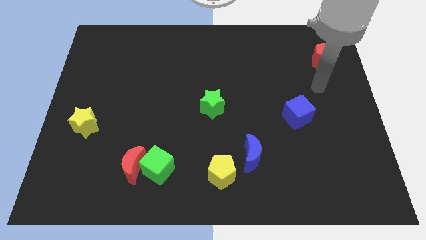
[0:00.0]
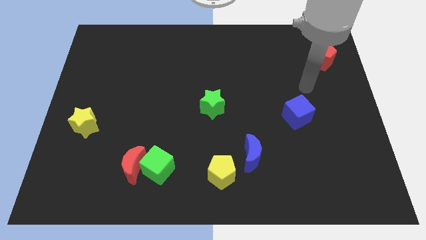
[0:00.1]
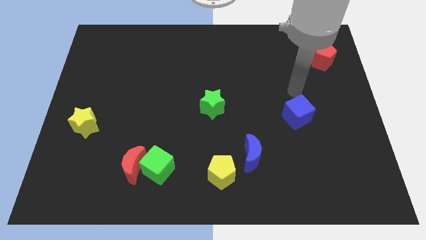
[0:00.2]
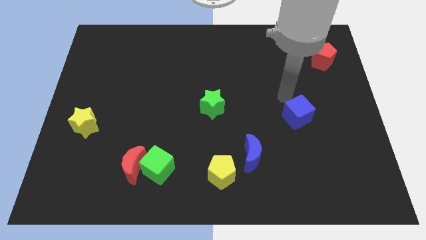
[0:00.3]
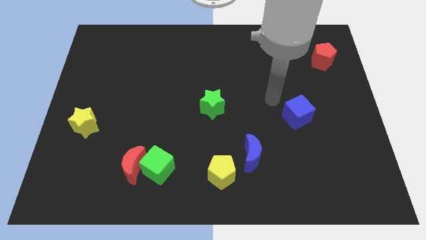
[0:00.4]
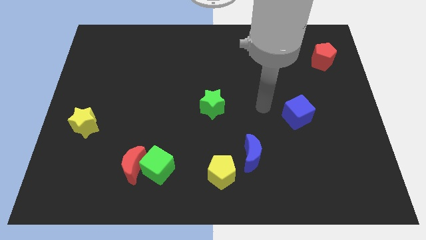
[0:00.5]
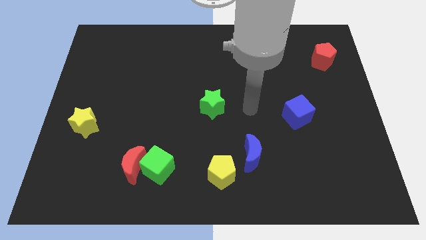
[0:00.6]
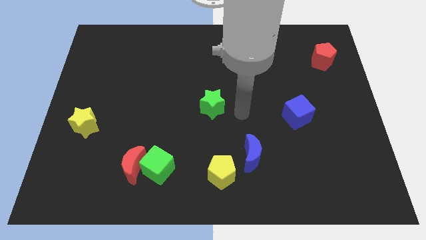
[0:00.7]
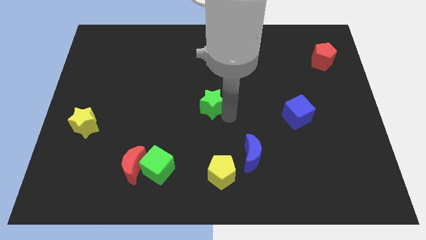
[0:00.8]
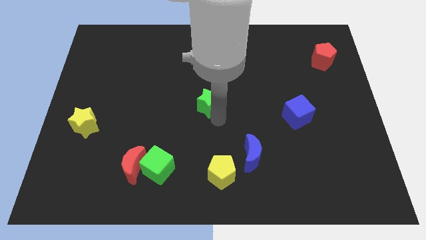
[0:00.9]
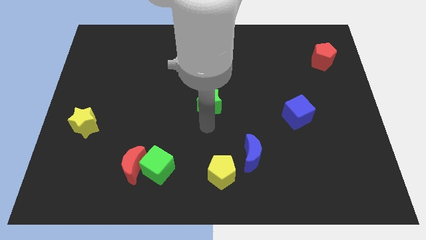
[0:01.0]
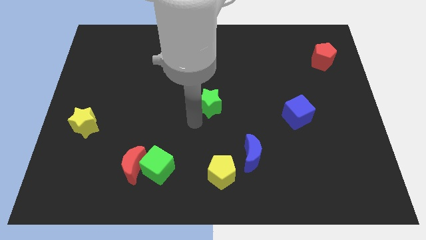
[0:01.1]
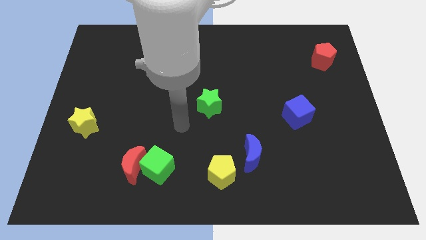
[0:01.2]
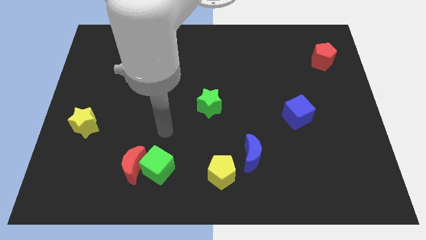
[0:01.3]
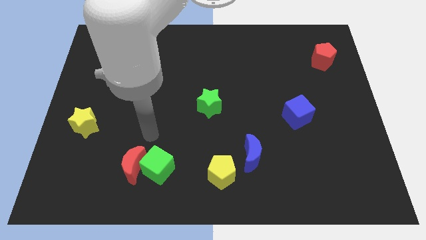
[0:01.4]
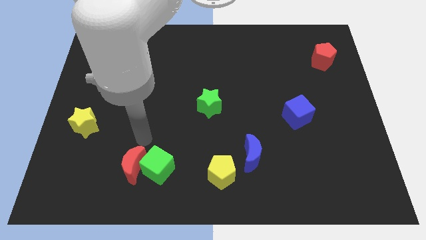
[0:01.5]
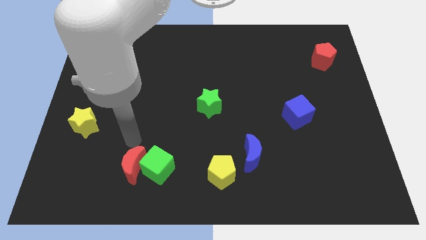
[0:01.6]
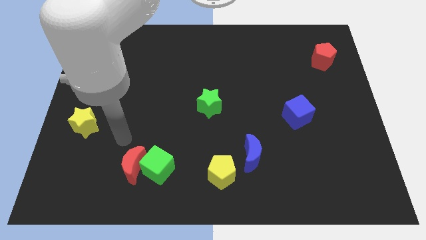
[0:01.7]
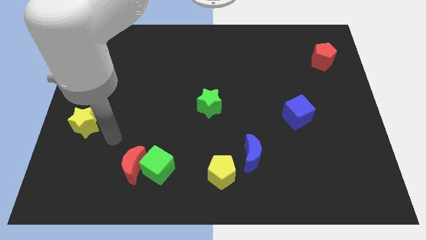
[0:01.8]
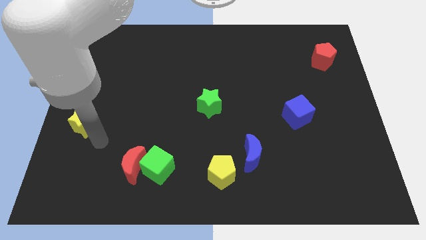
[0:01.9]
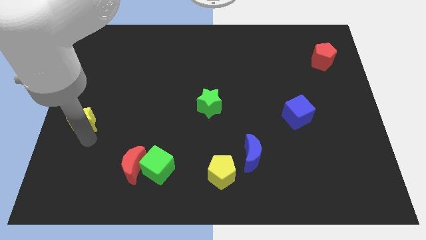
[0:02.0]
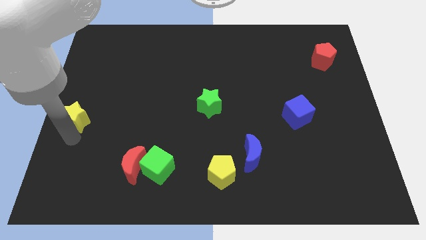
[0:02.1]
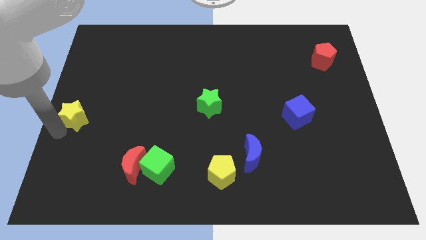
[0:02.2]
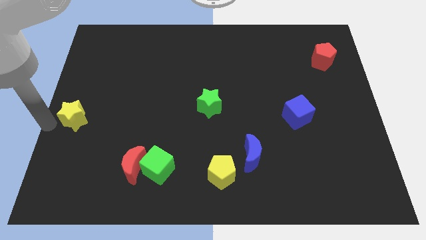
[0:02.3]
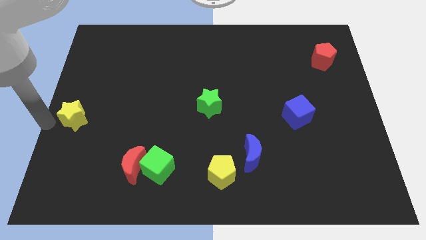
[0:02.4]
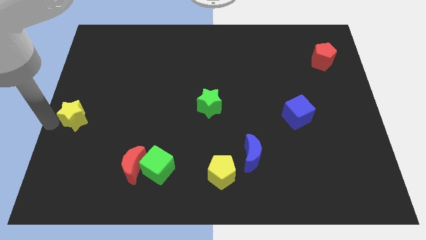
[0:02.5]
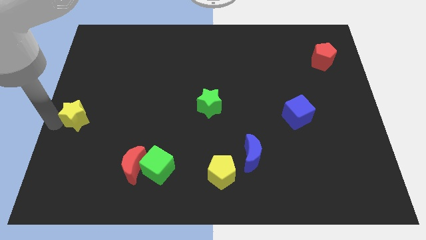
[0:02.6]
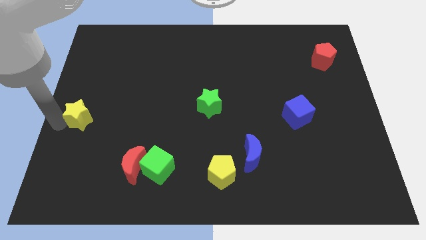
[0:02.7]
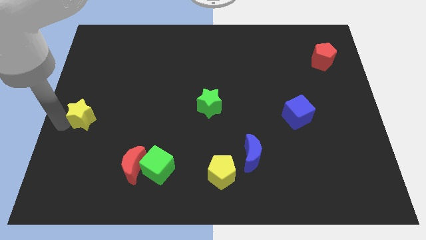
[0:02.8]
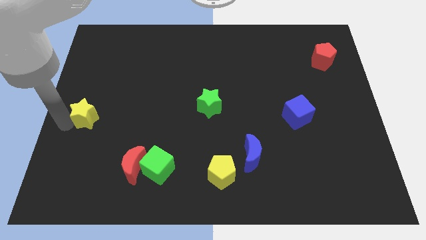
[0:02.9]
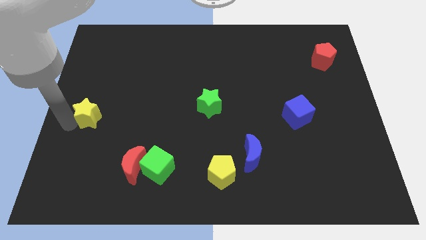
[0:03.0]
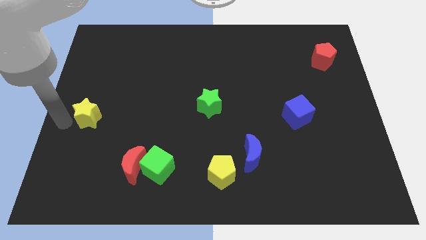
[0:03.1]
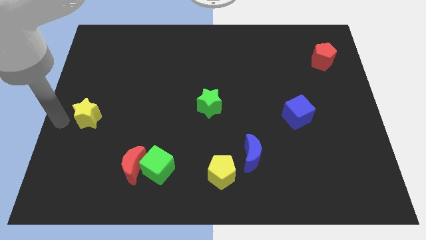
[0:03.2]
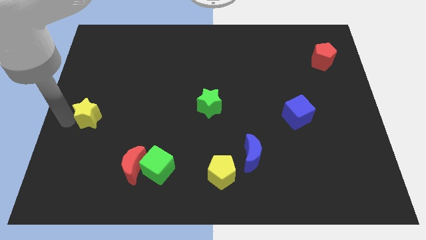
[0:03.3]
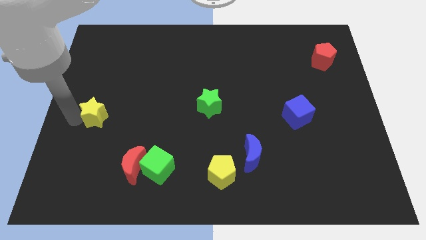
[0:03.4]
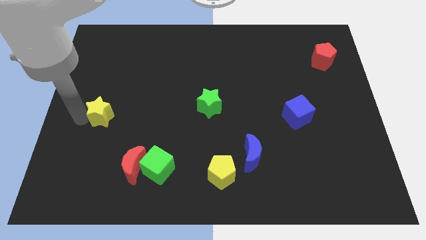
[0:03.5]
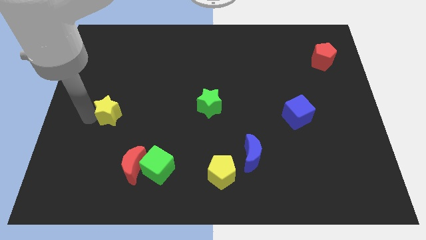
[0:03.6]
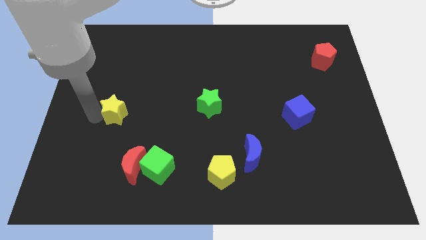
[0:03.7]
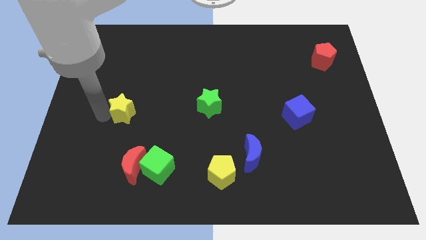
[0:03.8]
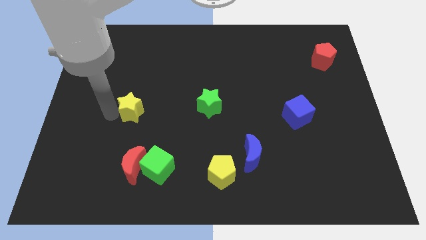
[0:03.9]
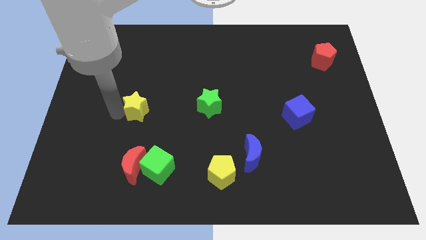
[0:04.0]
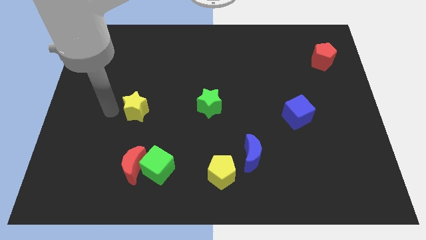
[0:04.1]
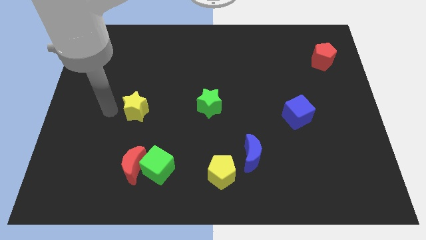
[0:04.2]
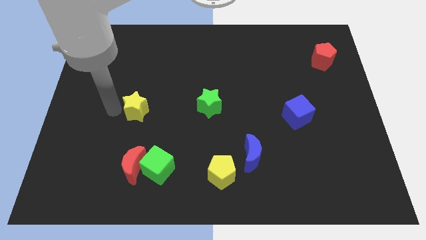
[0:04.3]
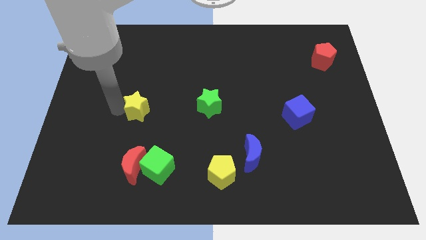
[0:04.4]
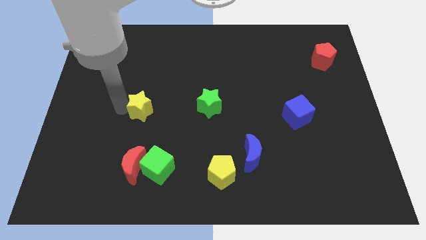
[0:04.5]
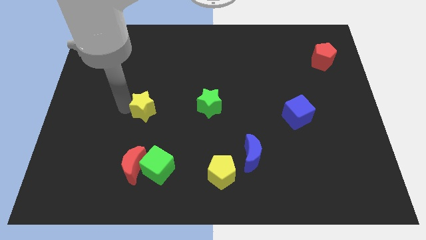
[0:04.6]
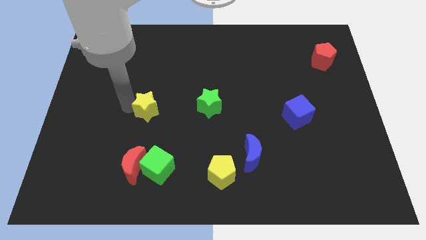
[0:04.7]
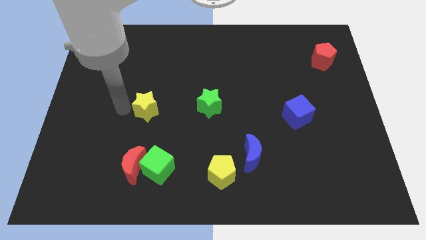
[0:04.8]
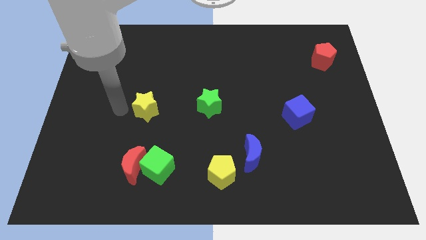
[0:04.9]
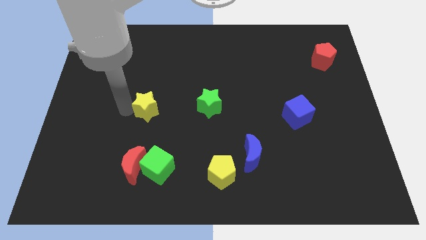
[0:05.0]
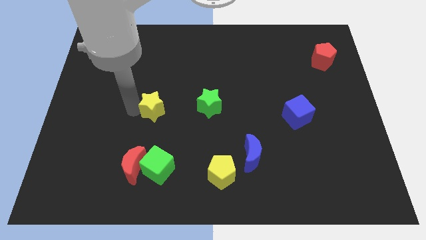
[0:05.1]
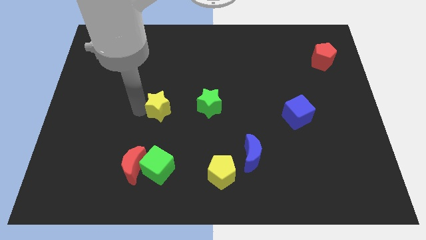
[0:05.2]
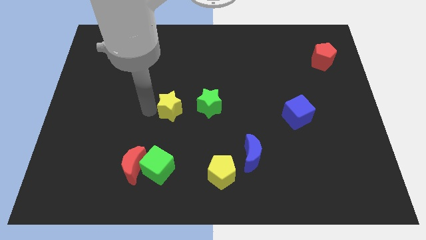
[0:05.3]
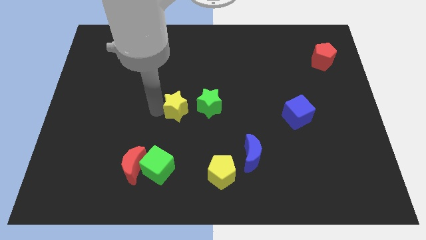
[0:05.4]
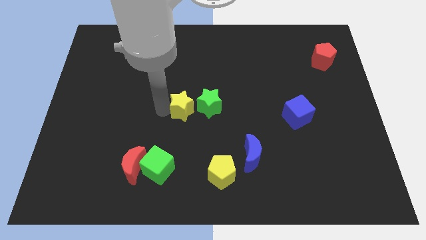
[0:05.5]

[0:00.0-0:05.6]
move the yellow star to the green star

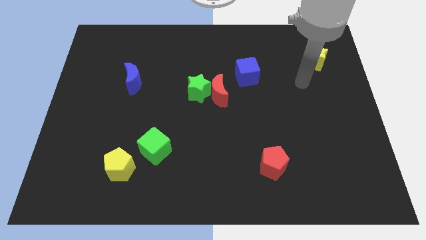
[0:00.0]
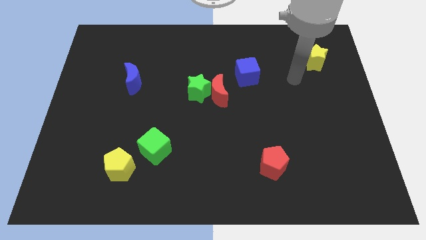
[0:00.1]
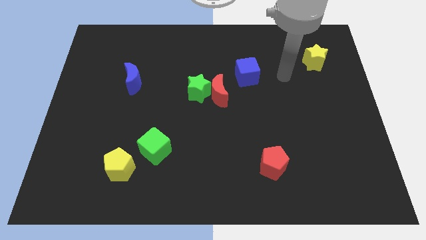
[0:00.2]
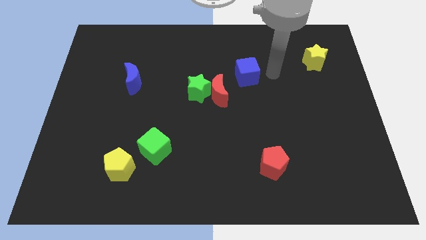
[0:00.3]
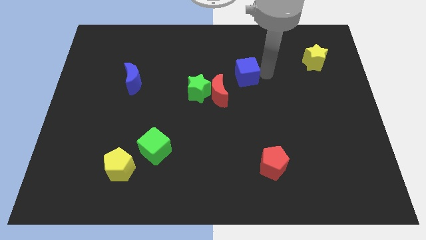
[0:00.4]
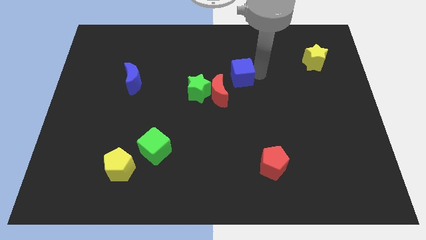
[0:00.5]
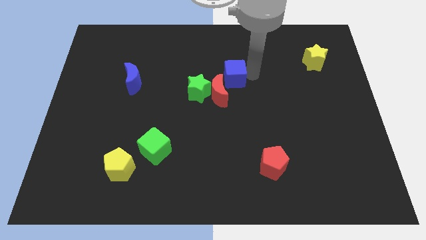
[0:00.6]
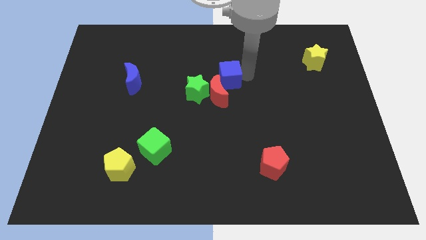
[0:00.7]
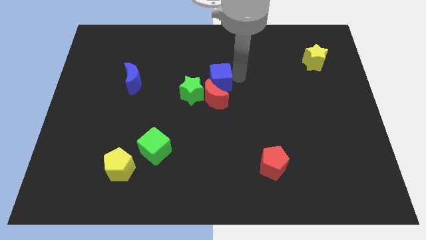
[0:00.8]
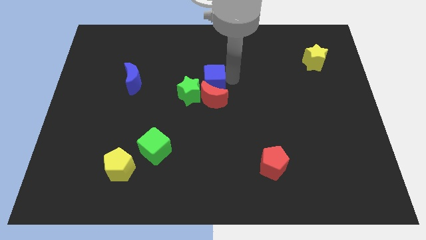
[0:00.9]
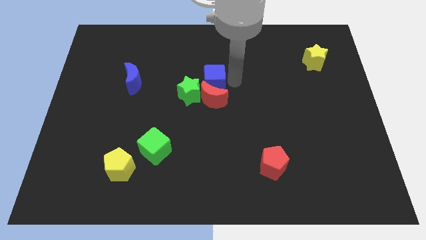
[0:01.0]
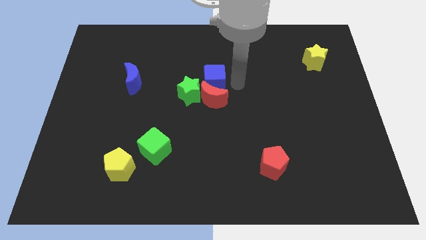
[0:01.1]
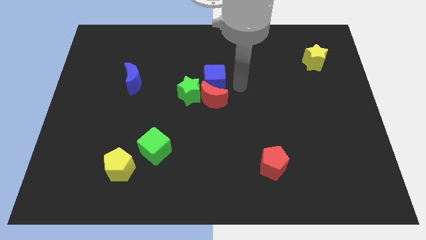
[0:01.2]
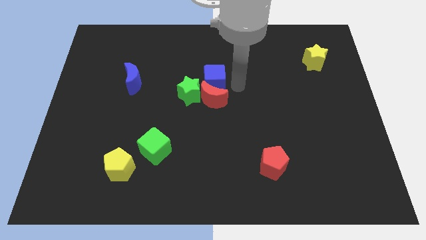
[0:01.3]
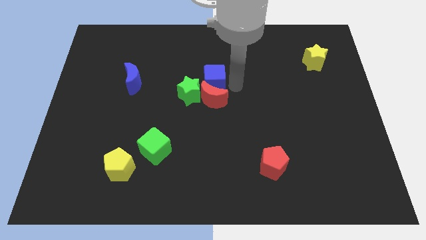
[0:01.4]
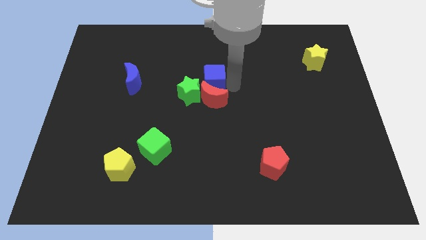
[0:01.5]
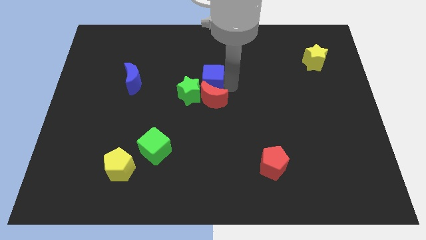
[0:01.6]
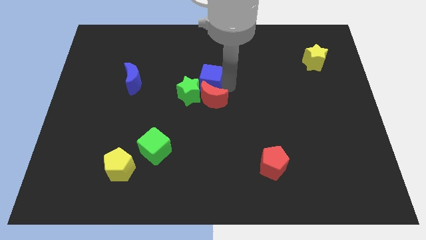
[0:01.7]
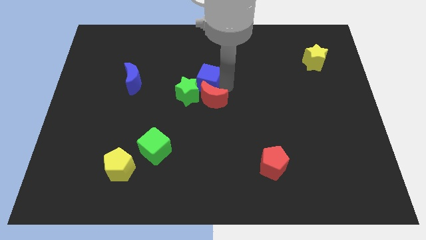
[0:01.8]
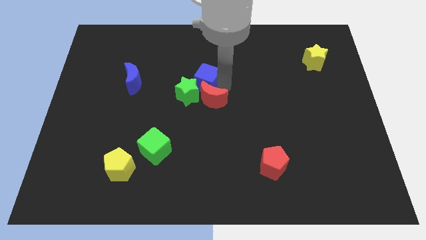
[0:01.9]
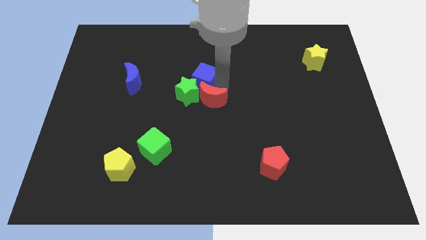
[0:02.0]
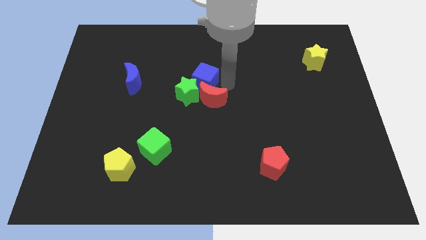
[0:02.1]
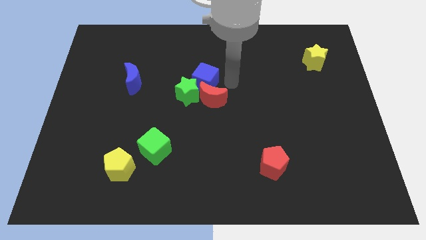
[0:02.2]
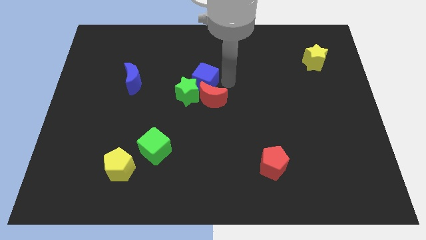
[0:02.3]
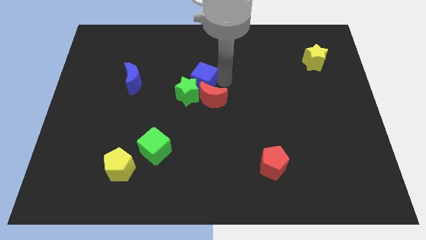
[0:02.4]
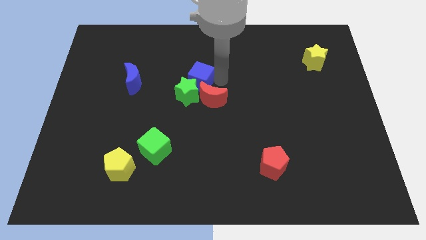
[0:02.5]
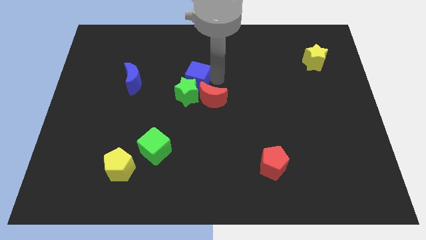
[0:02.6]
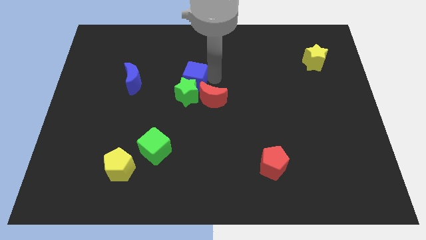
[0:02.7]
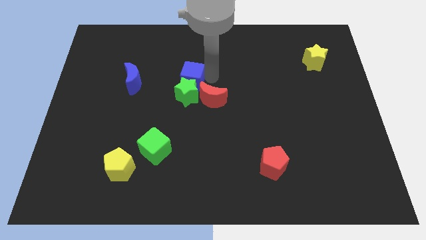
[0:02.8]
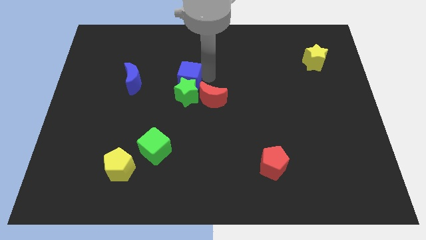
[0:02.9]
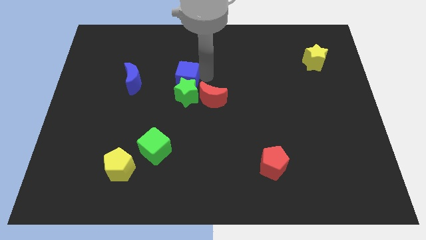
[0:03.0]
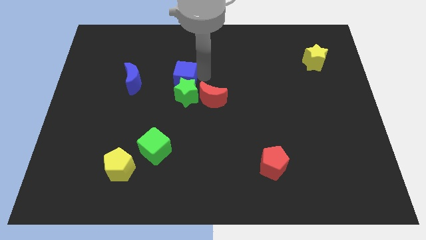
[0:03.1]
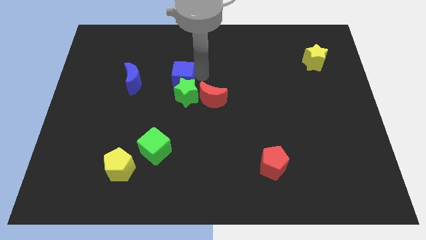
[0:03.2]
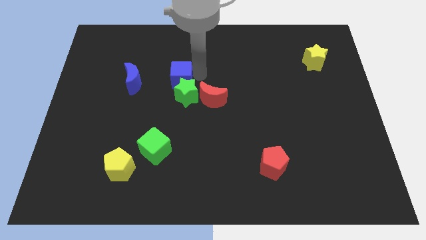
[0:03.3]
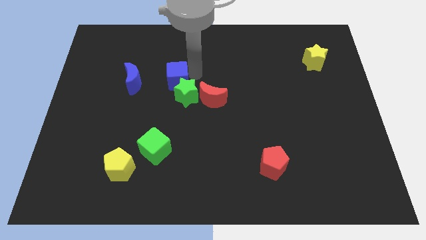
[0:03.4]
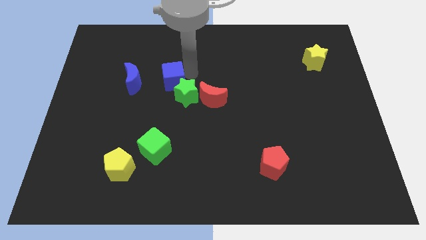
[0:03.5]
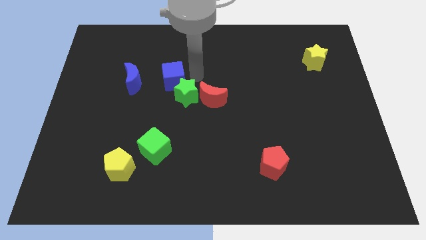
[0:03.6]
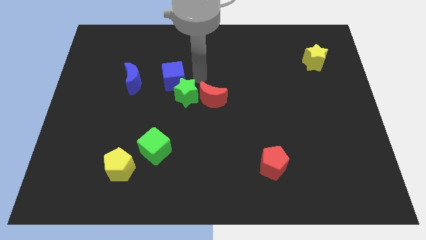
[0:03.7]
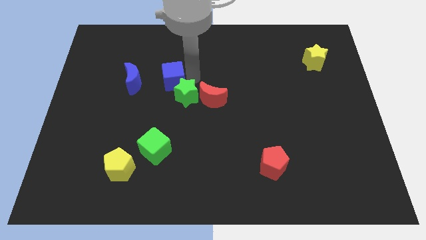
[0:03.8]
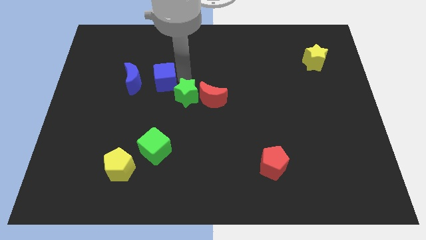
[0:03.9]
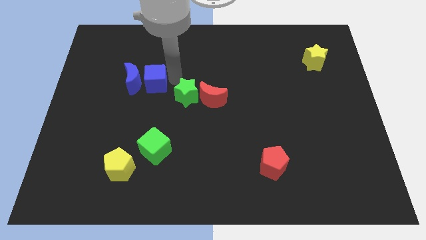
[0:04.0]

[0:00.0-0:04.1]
push the blue cube next to the blue moon
